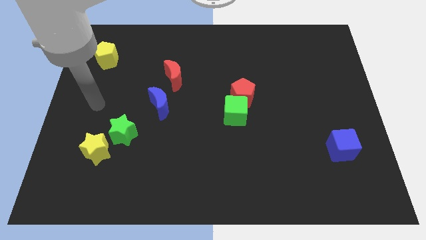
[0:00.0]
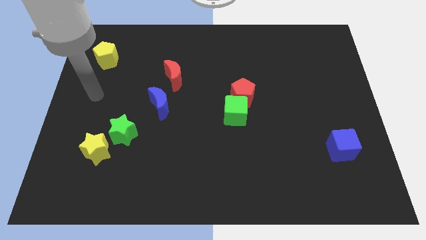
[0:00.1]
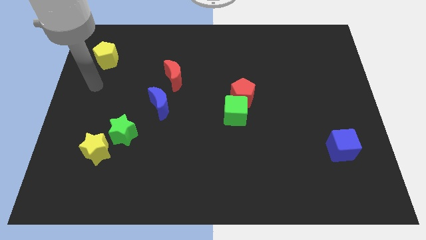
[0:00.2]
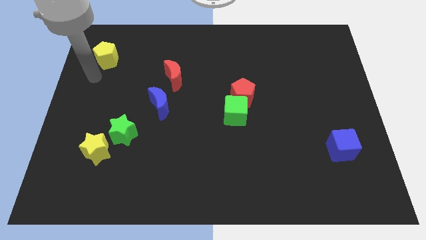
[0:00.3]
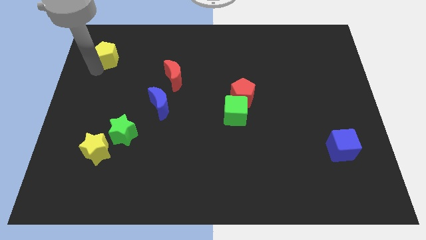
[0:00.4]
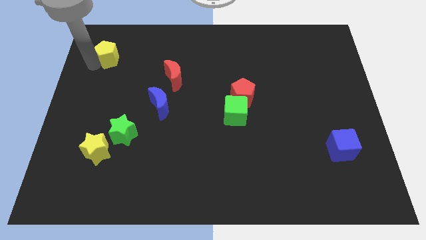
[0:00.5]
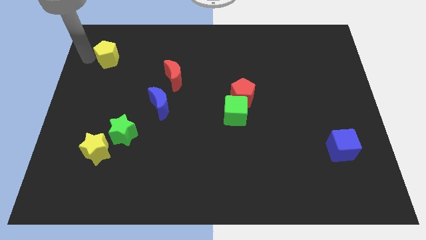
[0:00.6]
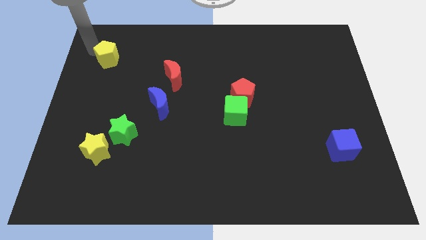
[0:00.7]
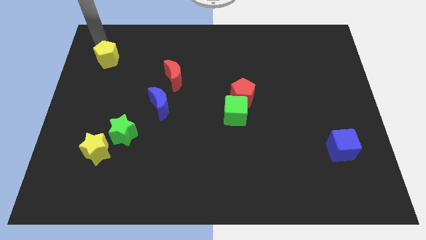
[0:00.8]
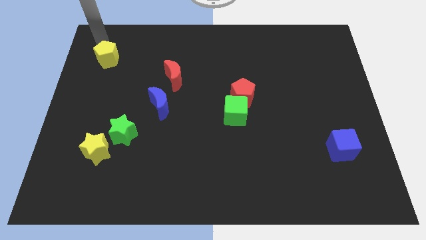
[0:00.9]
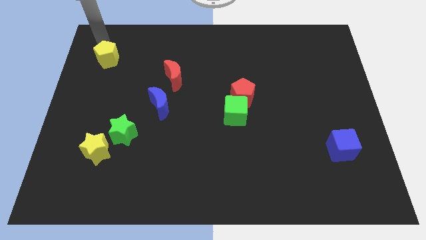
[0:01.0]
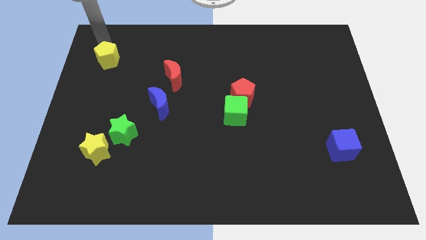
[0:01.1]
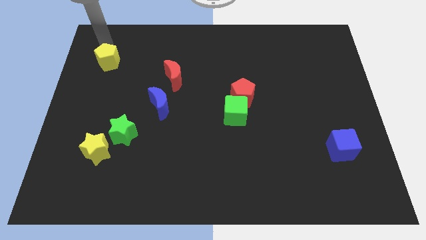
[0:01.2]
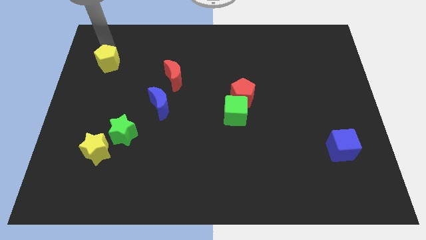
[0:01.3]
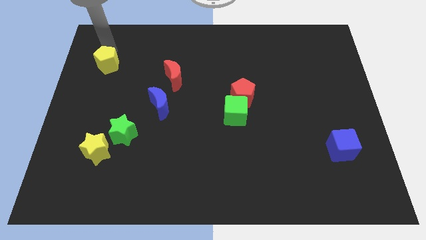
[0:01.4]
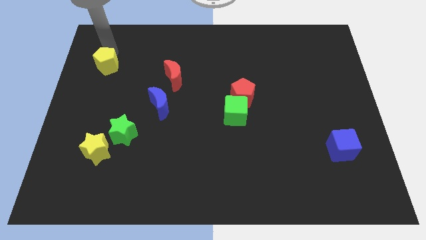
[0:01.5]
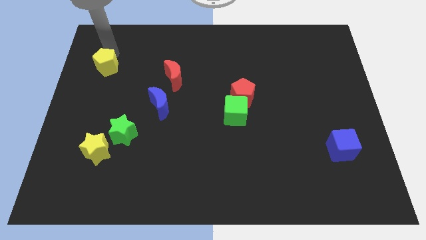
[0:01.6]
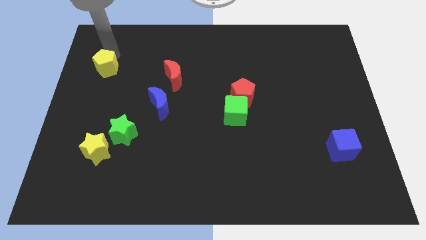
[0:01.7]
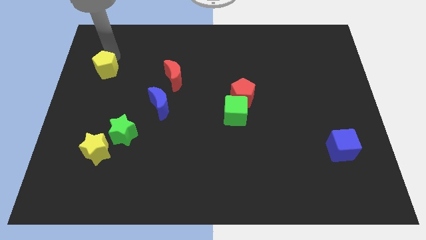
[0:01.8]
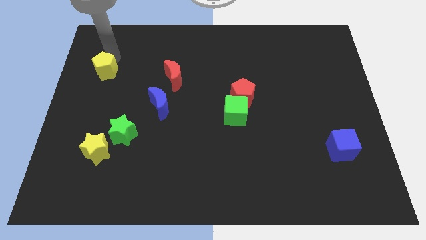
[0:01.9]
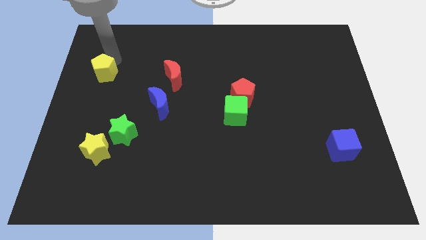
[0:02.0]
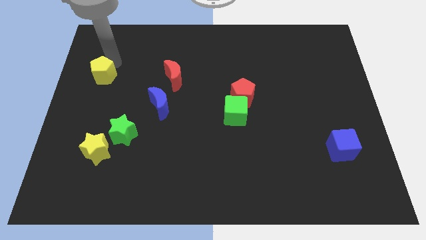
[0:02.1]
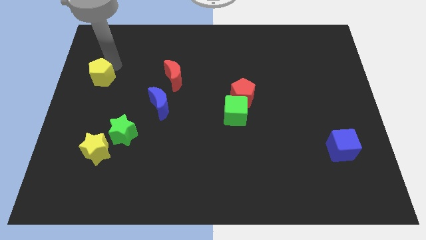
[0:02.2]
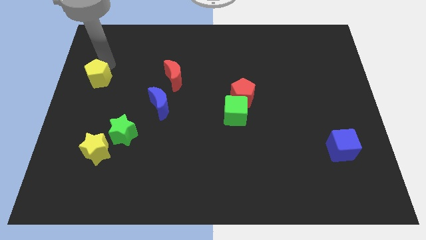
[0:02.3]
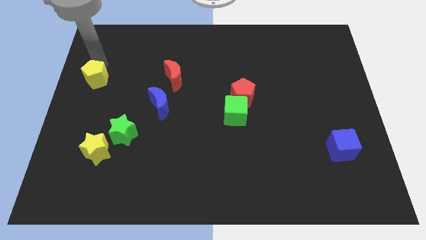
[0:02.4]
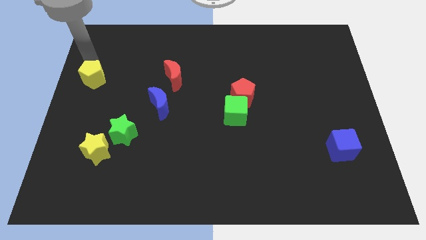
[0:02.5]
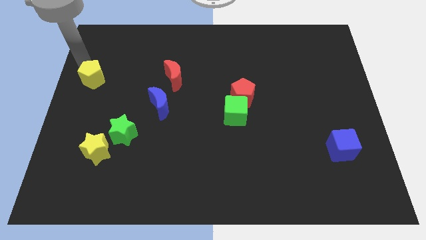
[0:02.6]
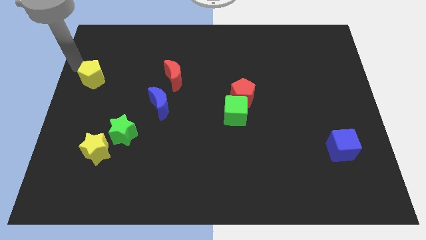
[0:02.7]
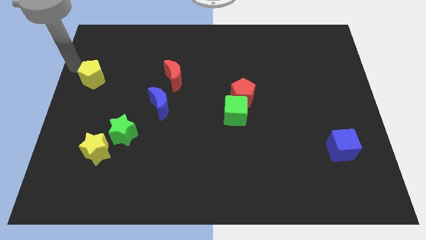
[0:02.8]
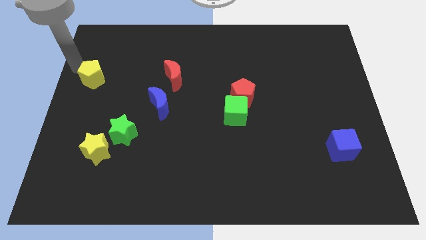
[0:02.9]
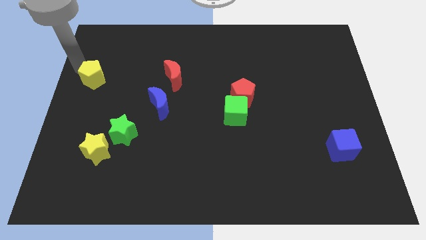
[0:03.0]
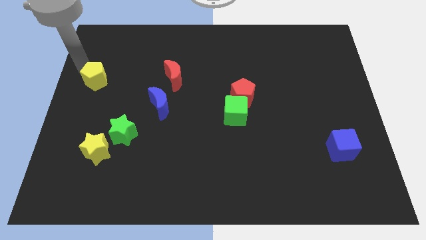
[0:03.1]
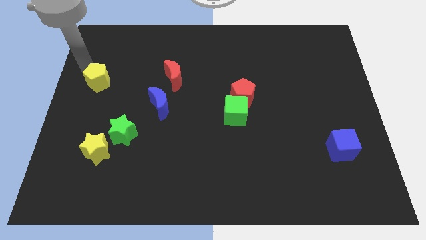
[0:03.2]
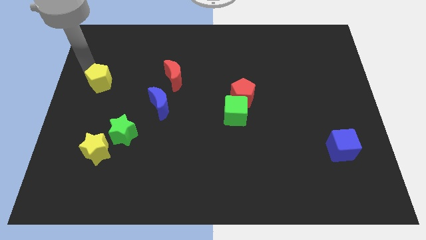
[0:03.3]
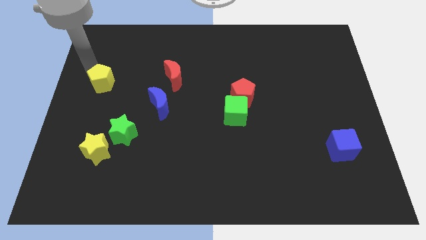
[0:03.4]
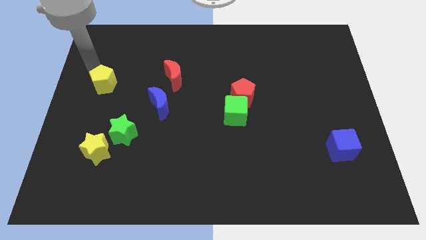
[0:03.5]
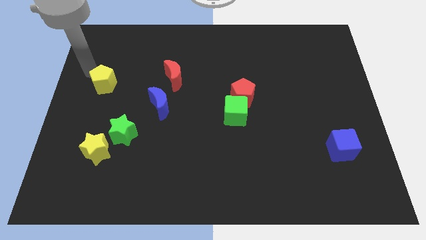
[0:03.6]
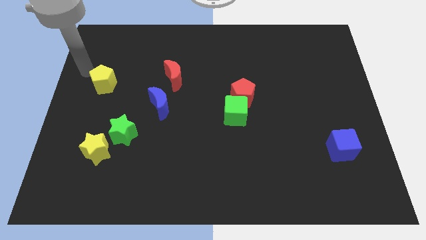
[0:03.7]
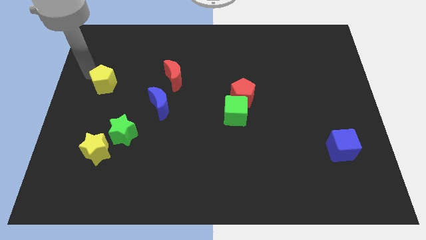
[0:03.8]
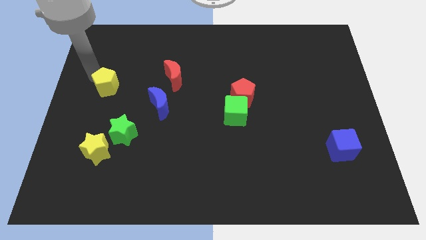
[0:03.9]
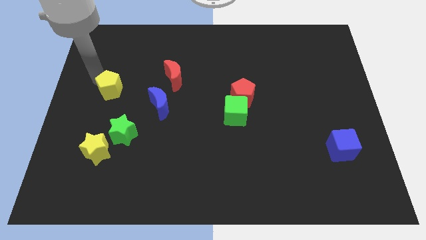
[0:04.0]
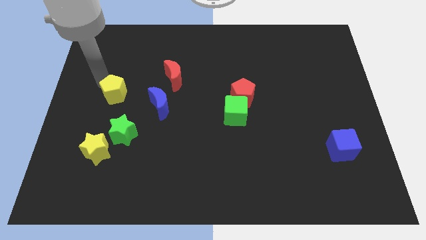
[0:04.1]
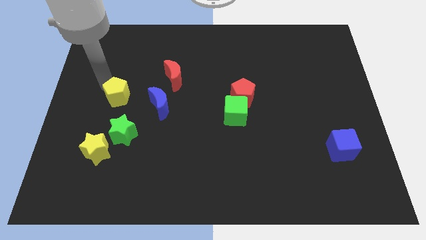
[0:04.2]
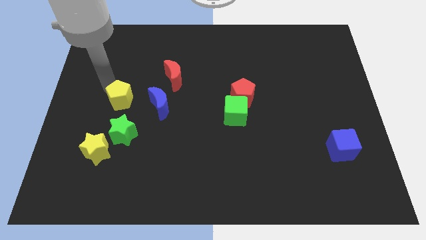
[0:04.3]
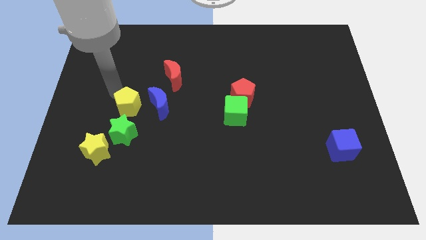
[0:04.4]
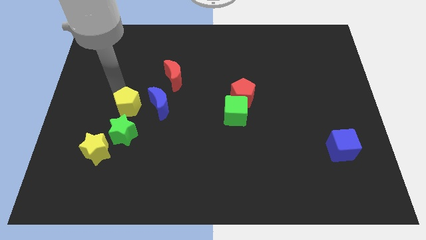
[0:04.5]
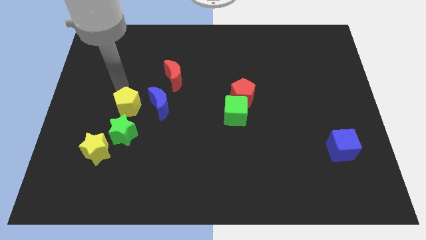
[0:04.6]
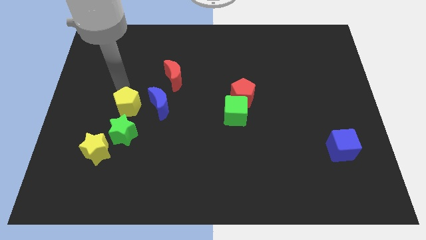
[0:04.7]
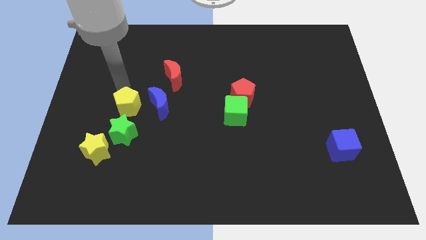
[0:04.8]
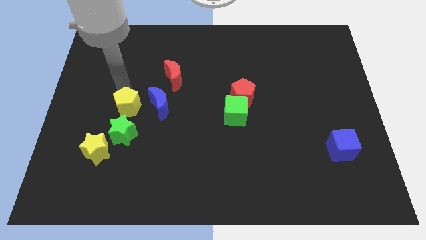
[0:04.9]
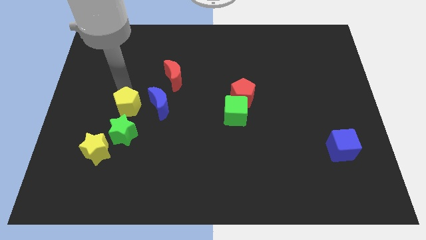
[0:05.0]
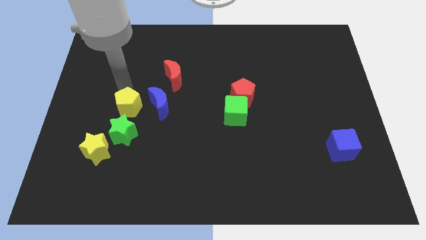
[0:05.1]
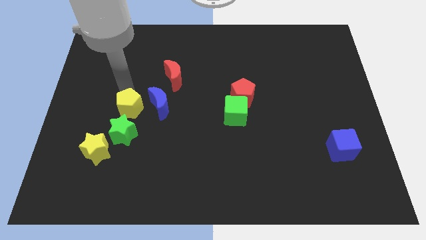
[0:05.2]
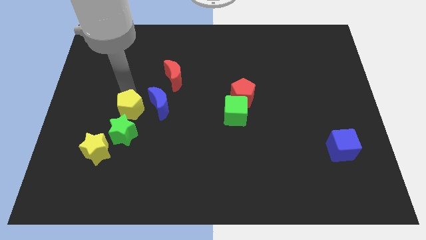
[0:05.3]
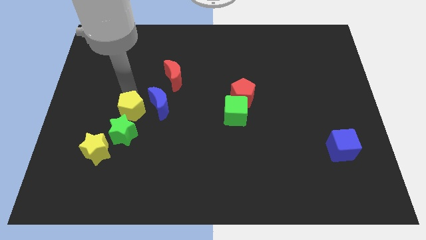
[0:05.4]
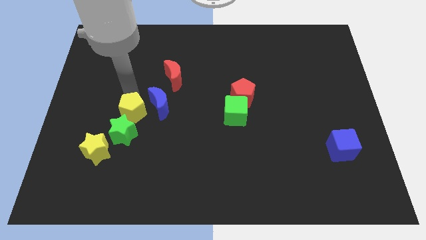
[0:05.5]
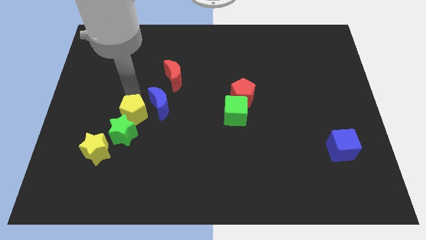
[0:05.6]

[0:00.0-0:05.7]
put the yellow pentagon to the top right of the yellow star

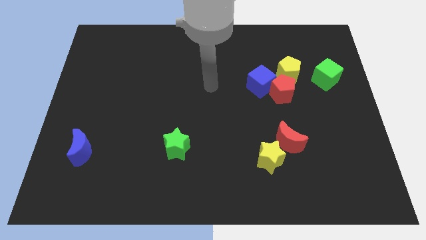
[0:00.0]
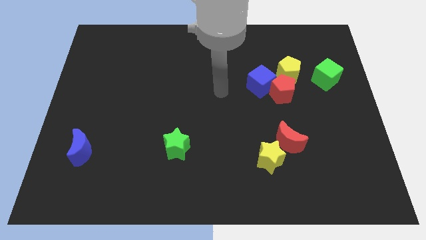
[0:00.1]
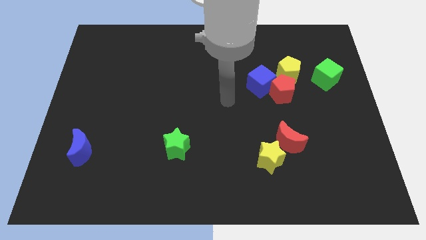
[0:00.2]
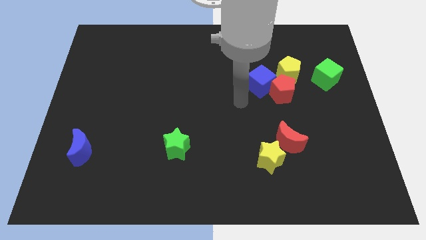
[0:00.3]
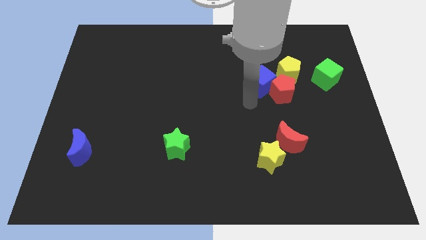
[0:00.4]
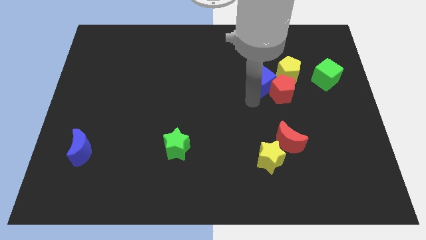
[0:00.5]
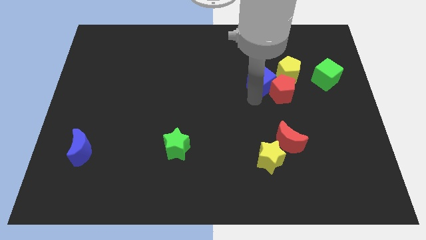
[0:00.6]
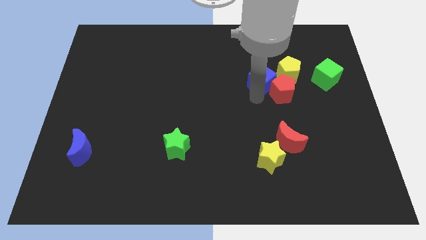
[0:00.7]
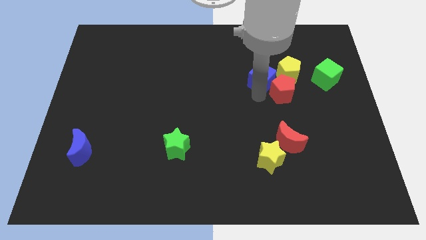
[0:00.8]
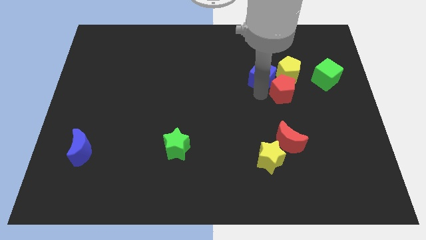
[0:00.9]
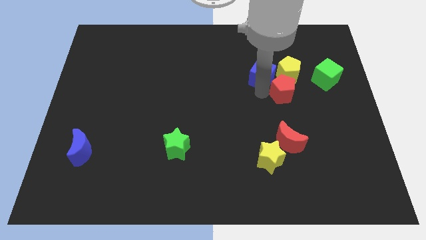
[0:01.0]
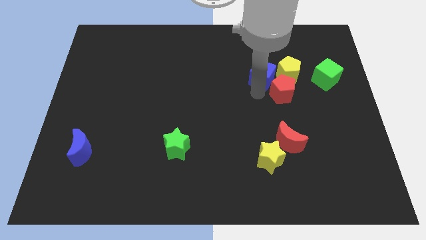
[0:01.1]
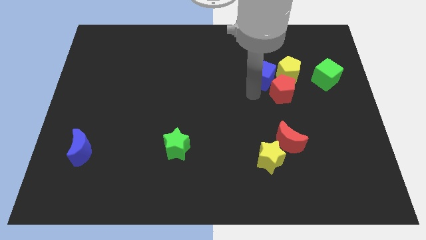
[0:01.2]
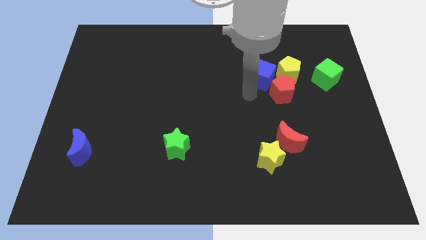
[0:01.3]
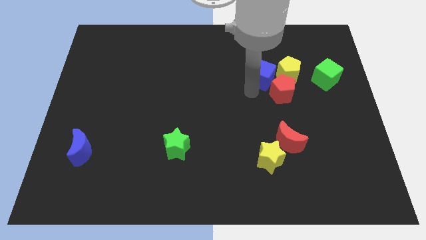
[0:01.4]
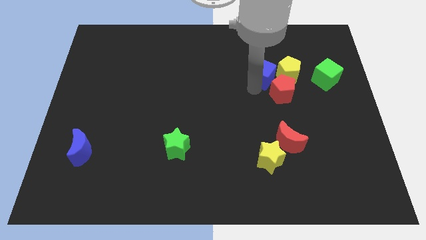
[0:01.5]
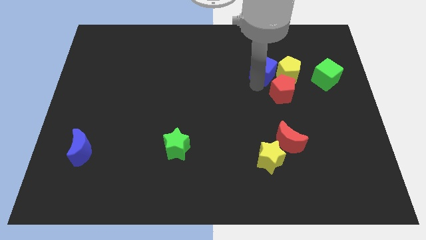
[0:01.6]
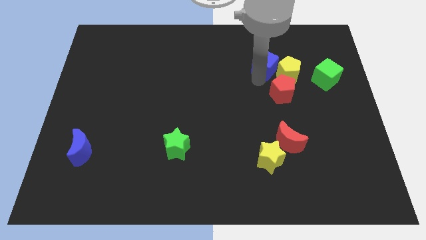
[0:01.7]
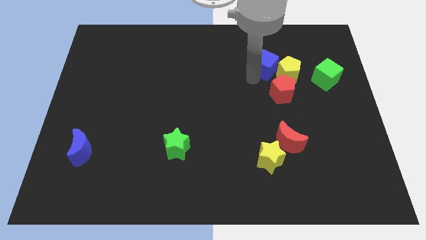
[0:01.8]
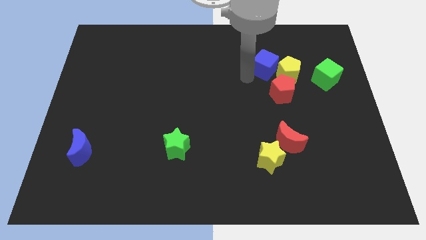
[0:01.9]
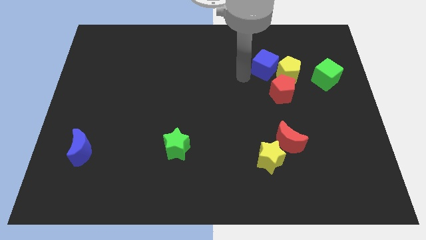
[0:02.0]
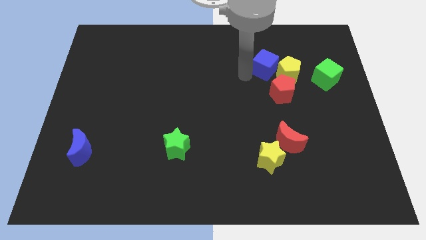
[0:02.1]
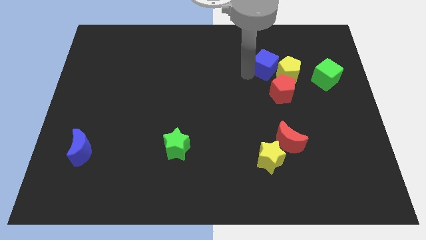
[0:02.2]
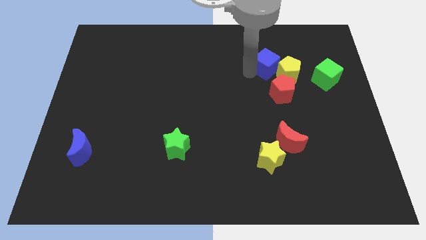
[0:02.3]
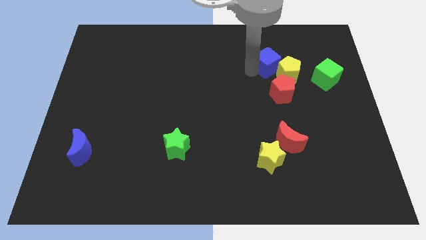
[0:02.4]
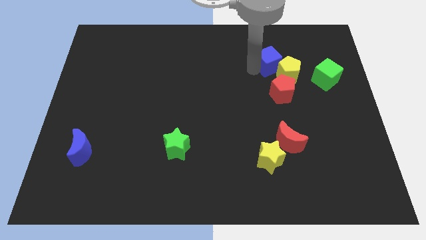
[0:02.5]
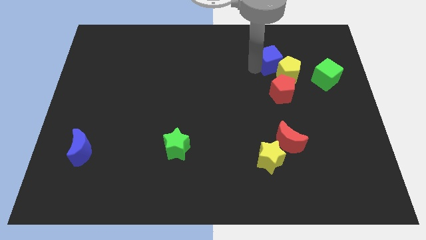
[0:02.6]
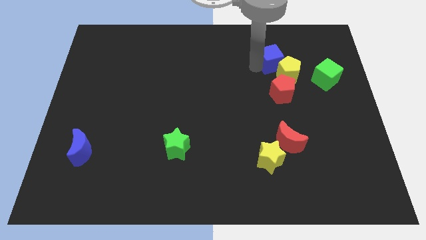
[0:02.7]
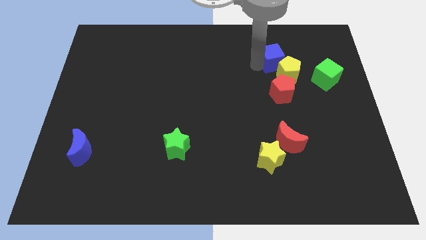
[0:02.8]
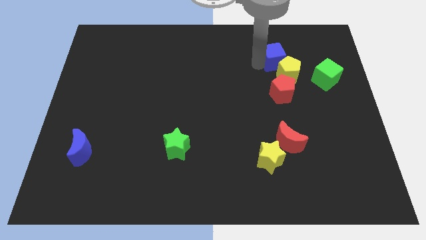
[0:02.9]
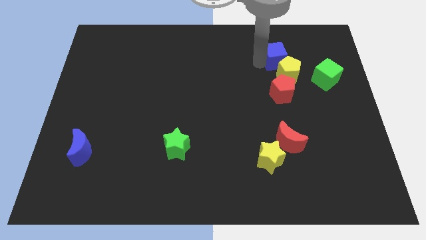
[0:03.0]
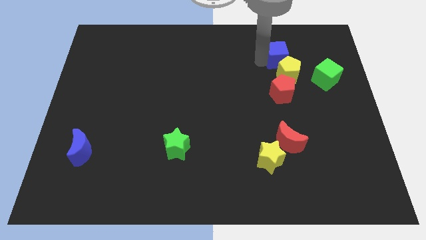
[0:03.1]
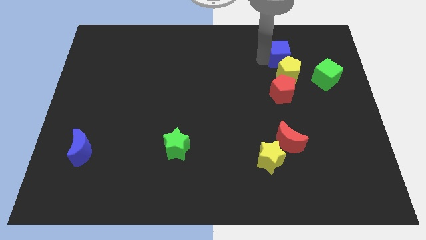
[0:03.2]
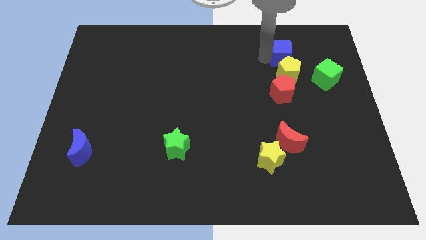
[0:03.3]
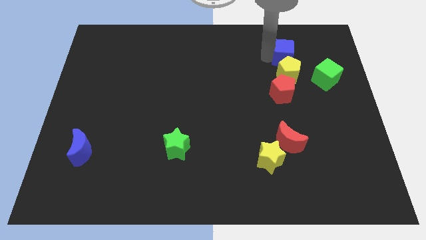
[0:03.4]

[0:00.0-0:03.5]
move the blue cube diagonally up and to the left of the green cube
